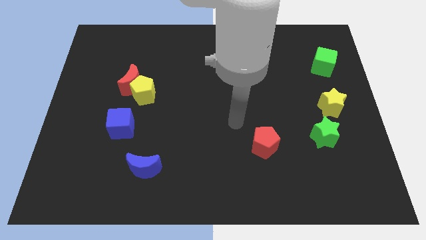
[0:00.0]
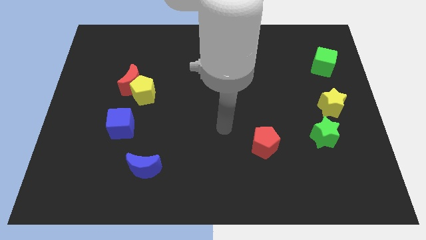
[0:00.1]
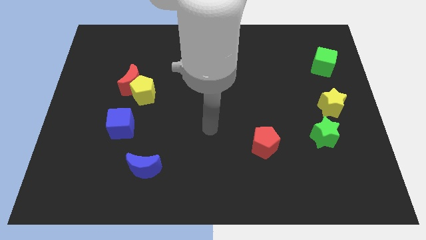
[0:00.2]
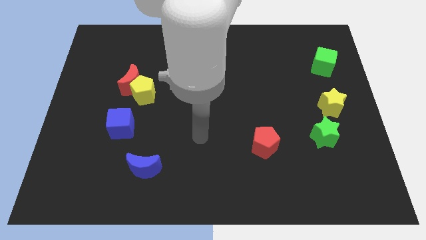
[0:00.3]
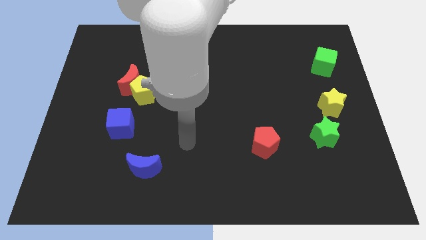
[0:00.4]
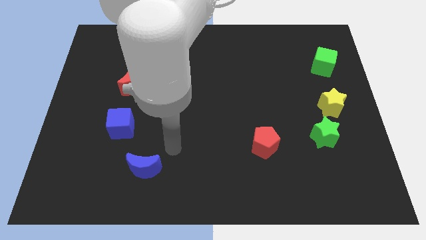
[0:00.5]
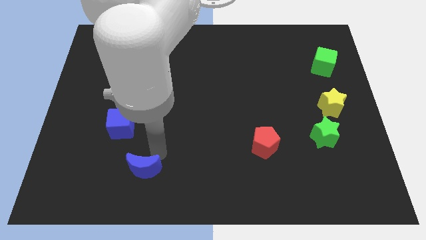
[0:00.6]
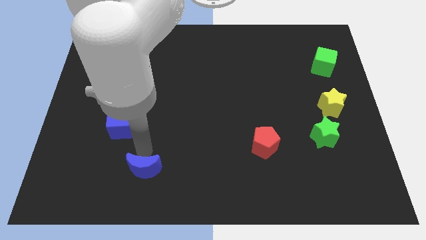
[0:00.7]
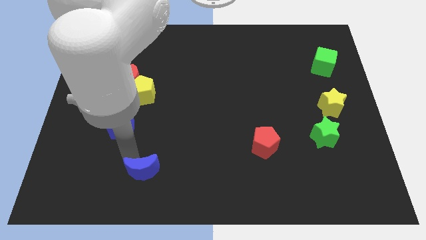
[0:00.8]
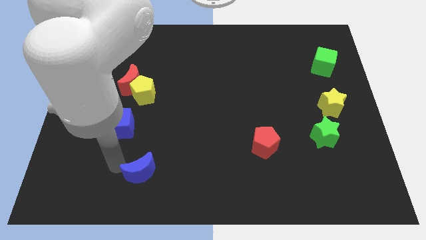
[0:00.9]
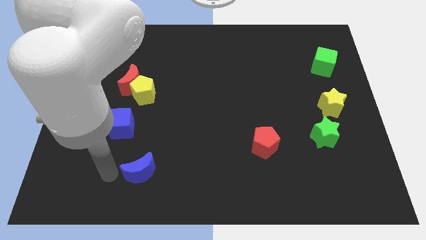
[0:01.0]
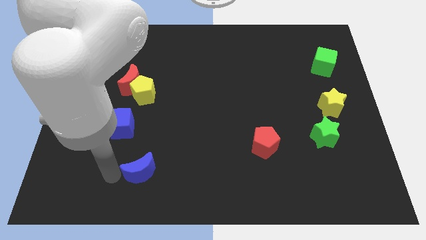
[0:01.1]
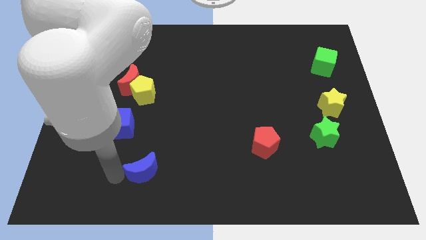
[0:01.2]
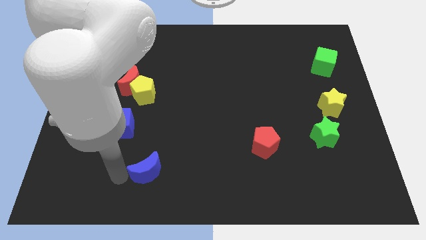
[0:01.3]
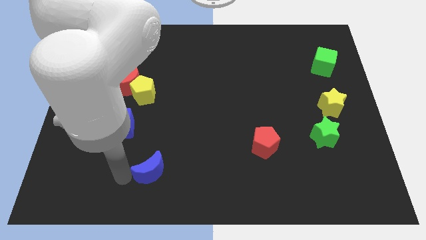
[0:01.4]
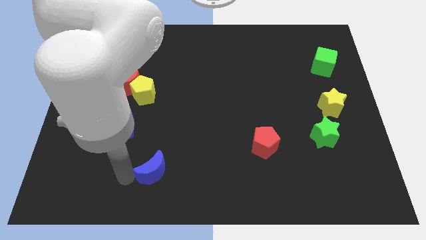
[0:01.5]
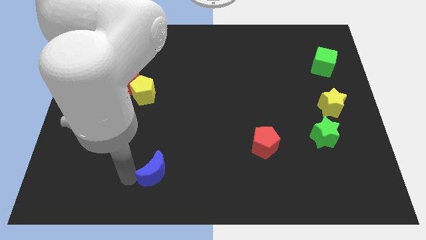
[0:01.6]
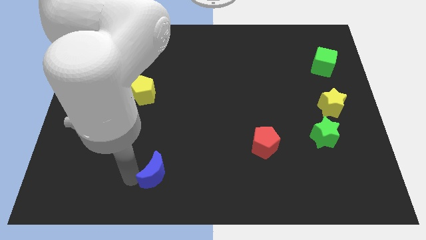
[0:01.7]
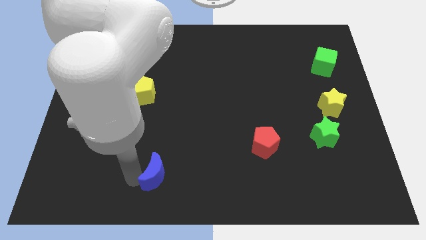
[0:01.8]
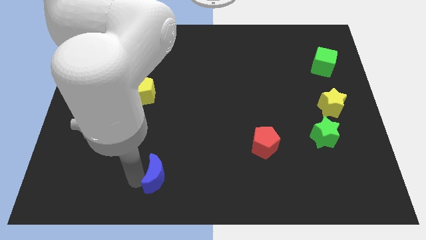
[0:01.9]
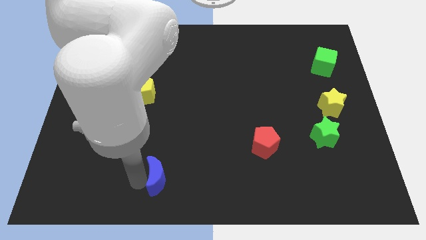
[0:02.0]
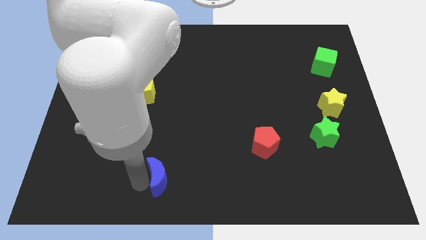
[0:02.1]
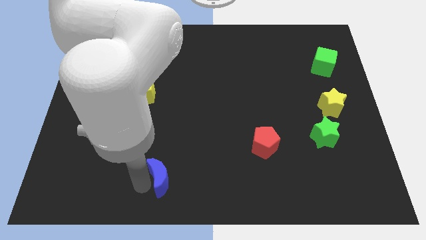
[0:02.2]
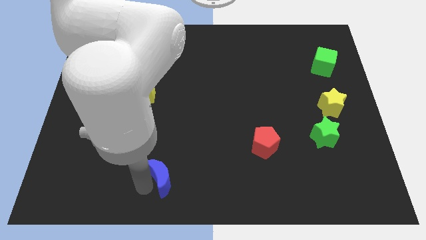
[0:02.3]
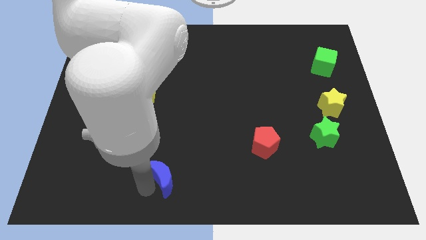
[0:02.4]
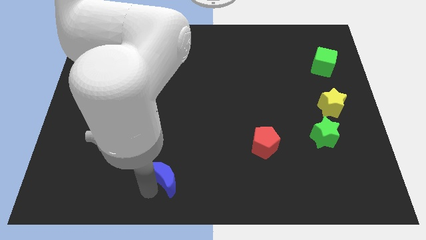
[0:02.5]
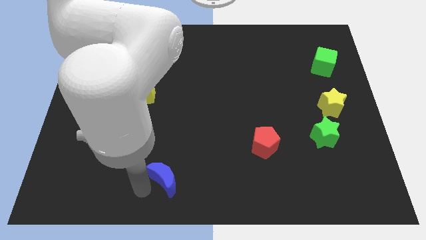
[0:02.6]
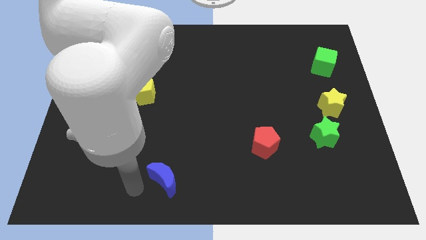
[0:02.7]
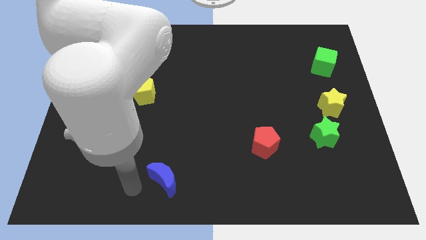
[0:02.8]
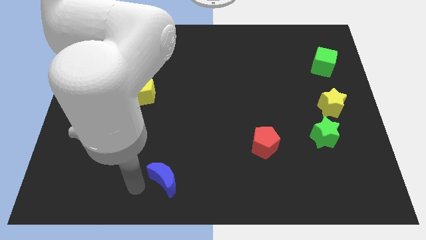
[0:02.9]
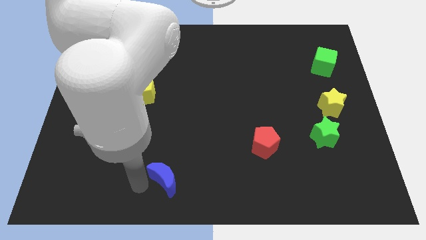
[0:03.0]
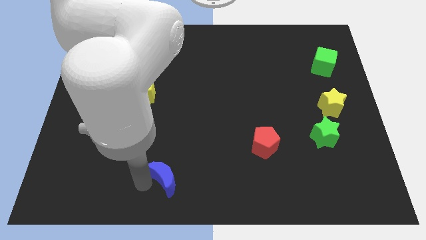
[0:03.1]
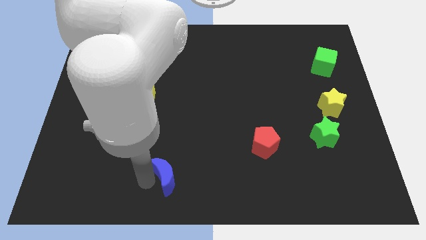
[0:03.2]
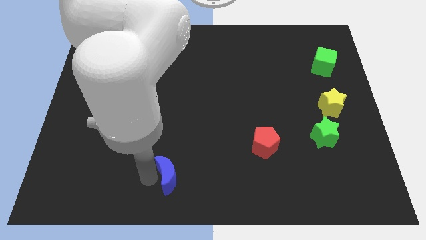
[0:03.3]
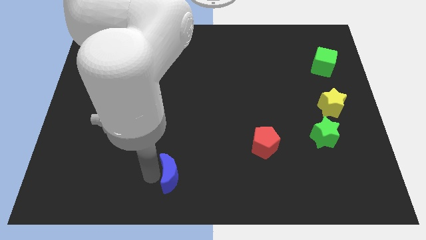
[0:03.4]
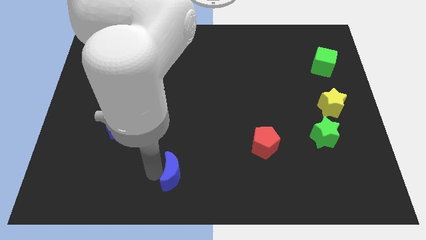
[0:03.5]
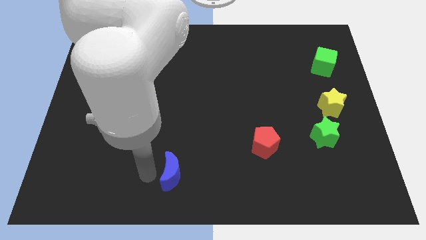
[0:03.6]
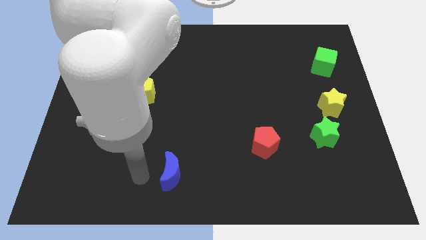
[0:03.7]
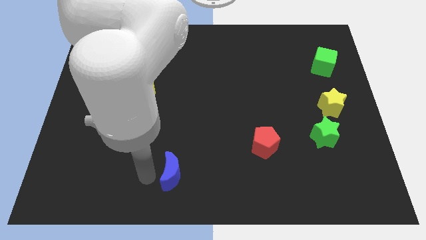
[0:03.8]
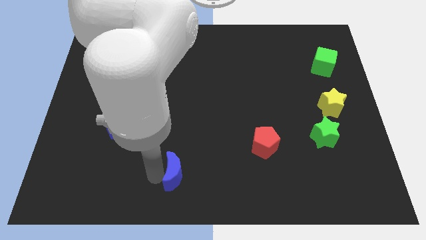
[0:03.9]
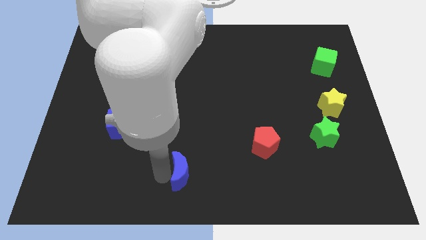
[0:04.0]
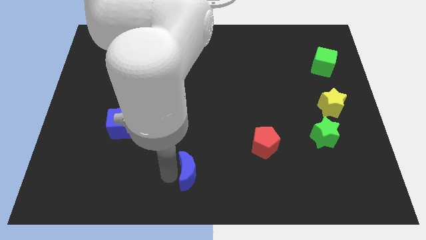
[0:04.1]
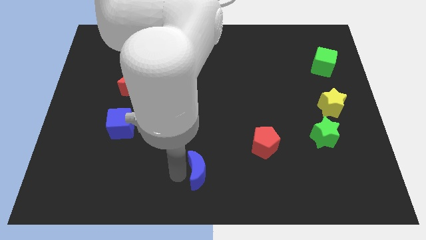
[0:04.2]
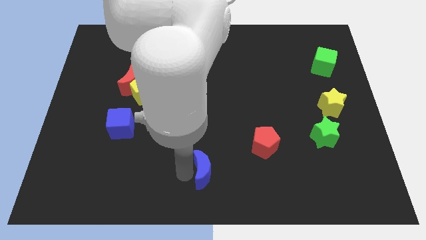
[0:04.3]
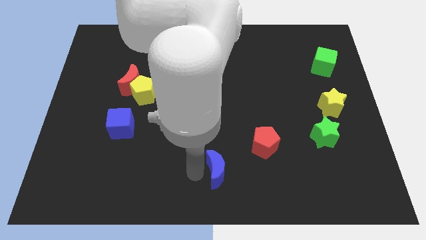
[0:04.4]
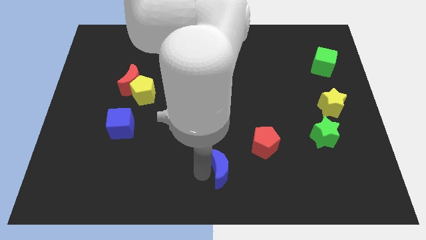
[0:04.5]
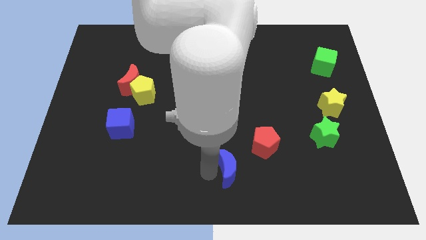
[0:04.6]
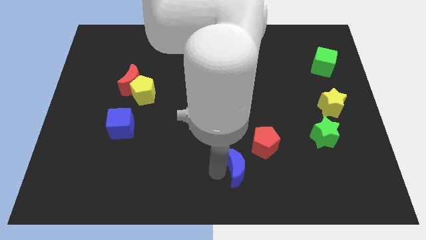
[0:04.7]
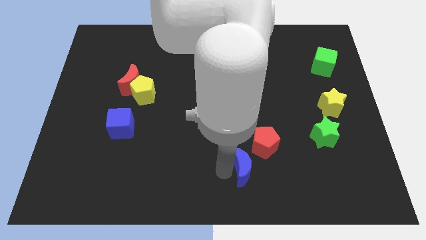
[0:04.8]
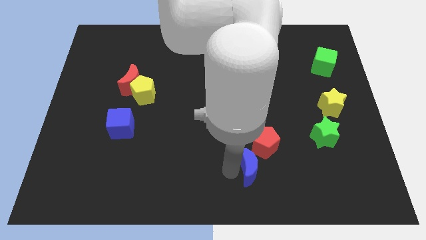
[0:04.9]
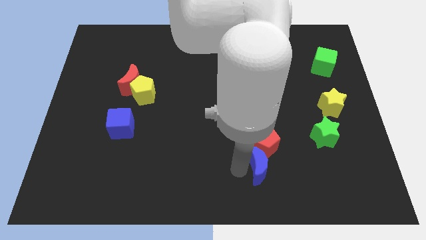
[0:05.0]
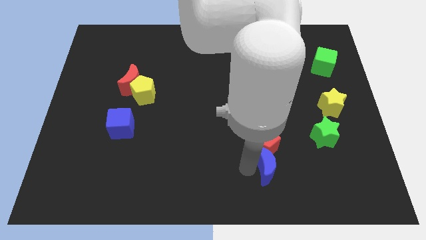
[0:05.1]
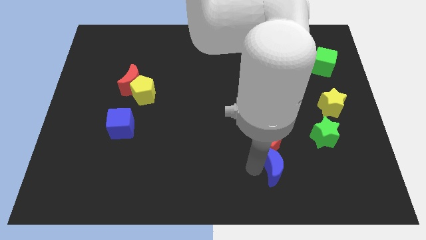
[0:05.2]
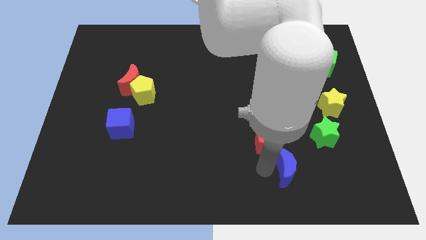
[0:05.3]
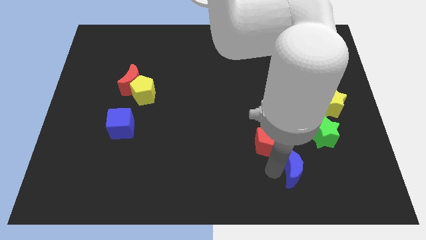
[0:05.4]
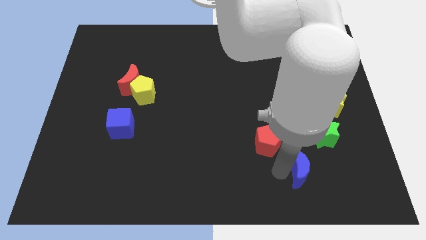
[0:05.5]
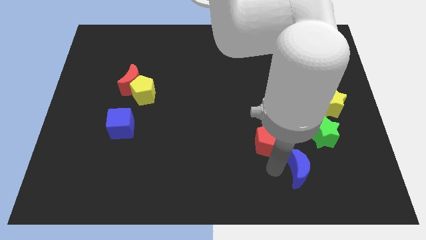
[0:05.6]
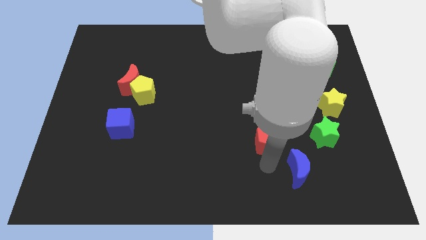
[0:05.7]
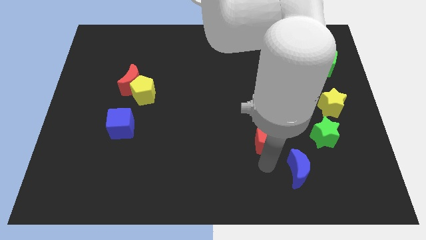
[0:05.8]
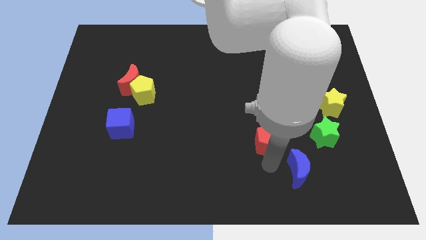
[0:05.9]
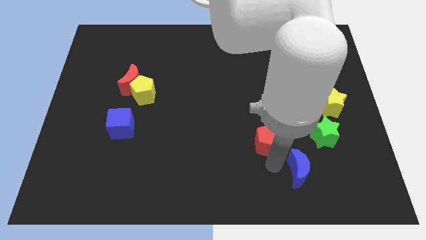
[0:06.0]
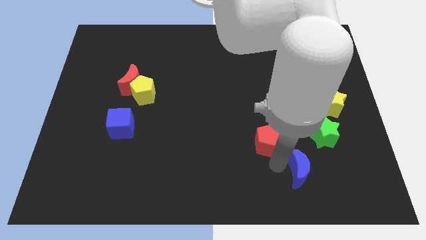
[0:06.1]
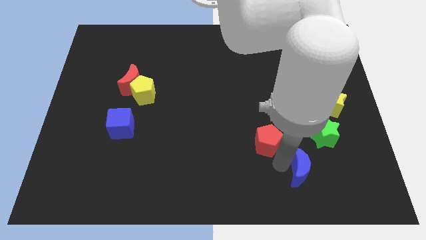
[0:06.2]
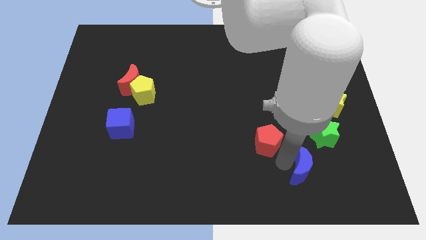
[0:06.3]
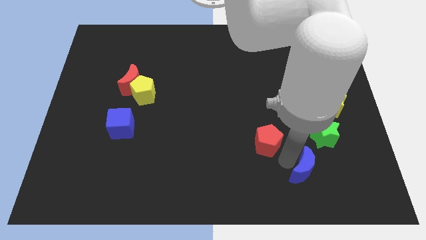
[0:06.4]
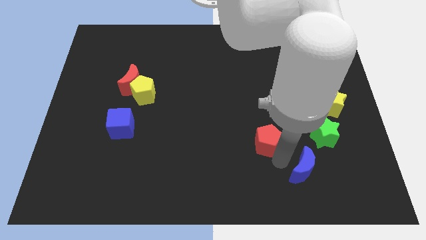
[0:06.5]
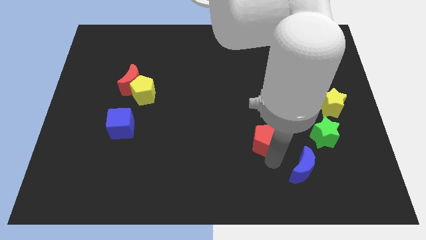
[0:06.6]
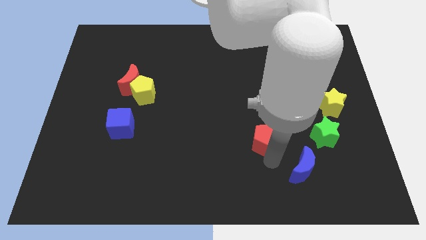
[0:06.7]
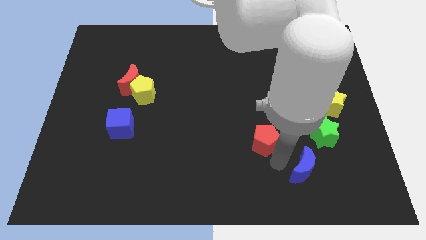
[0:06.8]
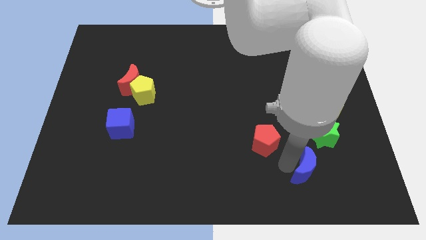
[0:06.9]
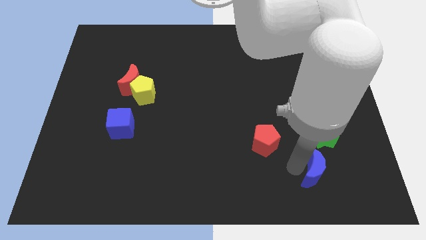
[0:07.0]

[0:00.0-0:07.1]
push the blue moon to the bottom side of the green star

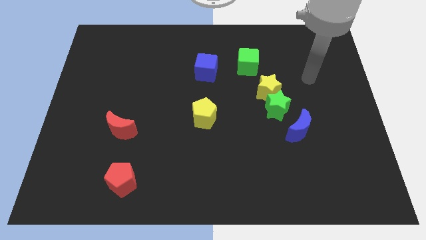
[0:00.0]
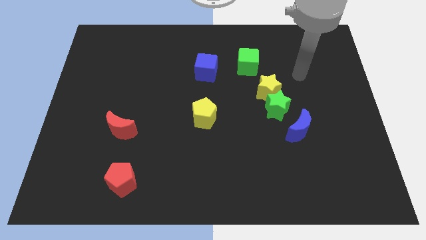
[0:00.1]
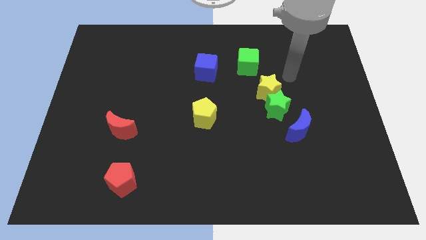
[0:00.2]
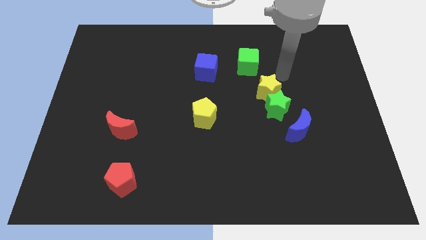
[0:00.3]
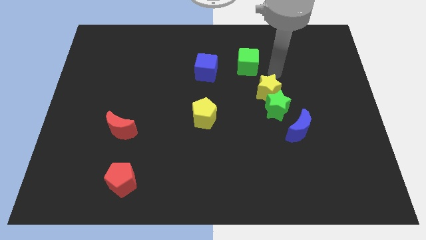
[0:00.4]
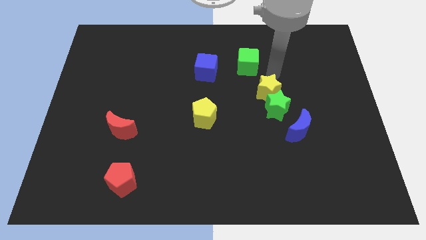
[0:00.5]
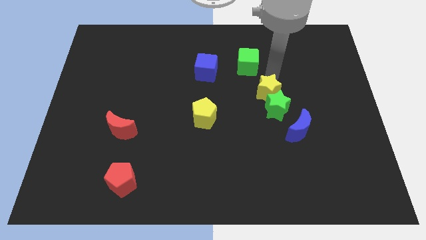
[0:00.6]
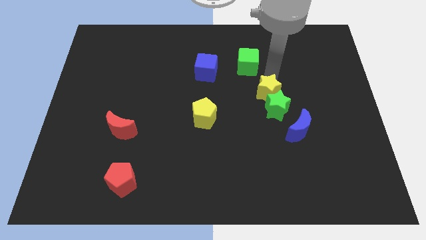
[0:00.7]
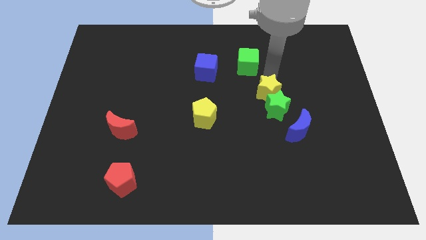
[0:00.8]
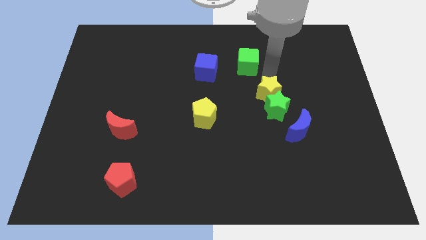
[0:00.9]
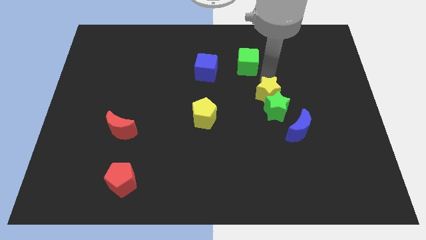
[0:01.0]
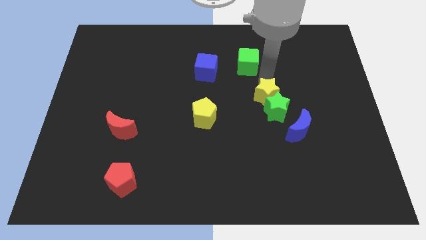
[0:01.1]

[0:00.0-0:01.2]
slide the yellow star to the top left of the blue moon
